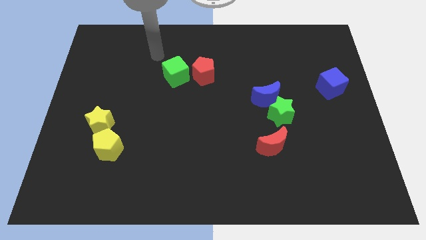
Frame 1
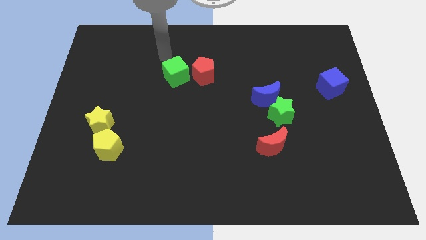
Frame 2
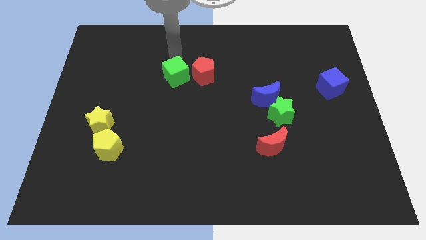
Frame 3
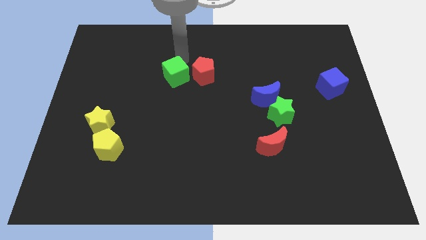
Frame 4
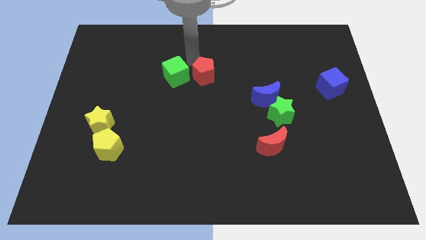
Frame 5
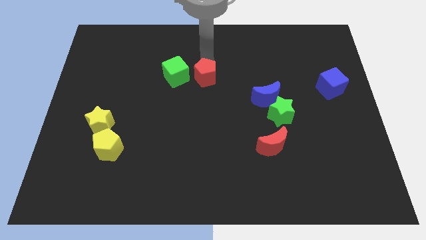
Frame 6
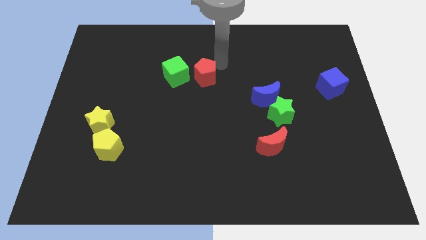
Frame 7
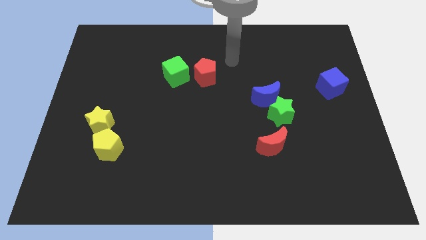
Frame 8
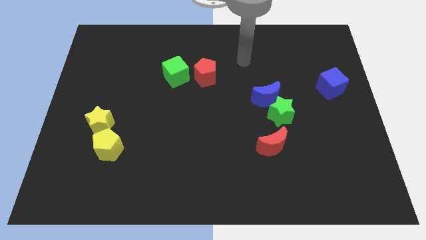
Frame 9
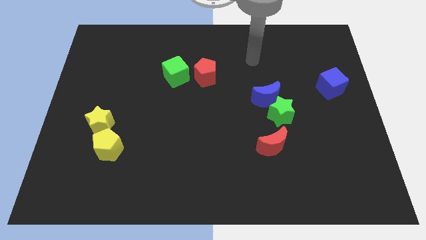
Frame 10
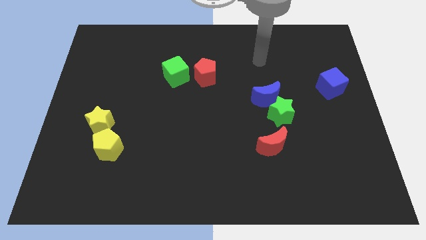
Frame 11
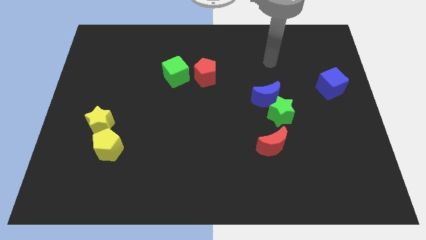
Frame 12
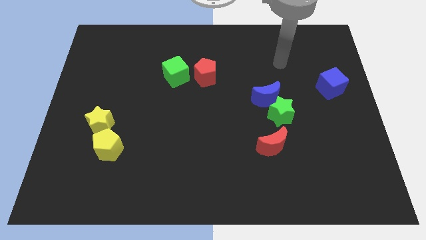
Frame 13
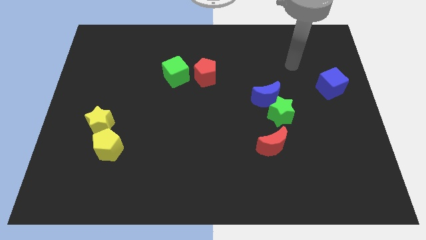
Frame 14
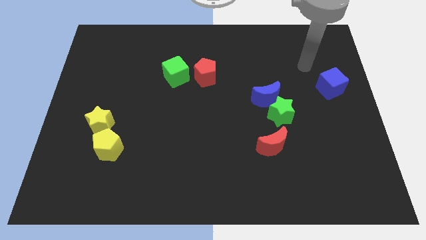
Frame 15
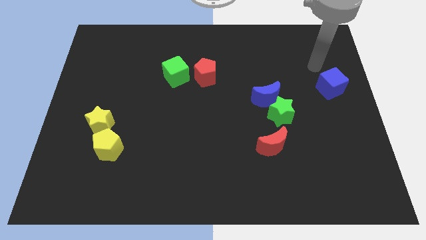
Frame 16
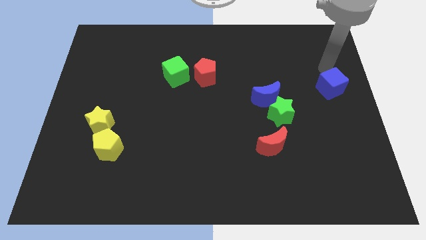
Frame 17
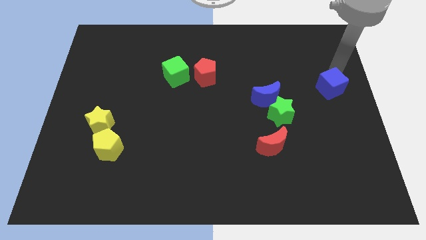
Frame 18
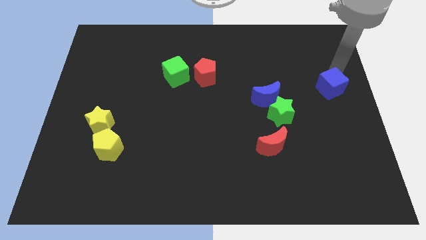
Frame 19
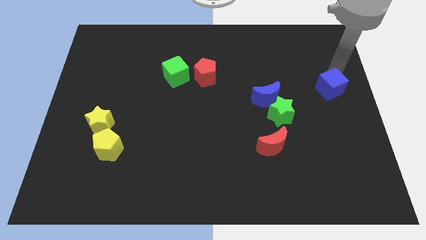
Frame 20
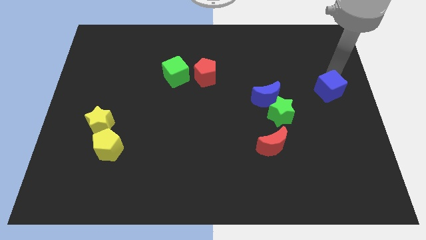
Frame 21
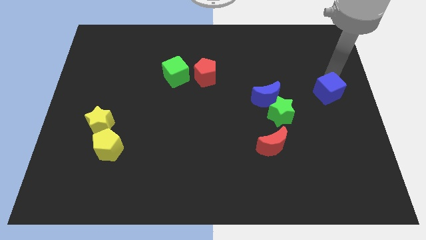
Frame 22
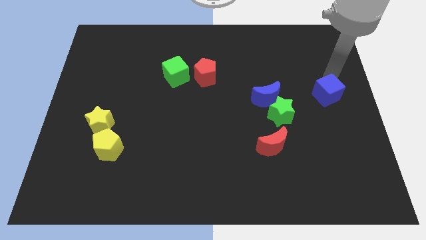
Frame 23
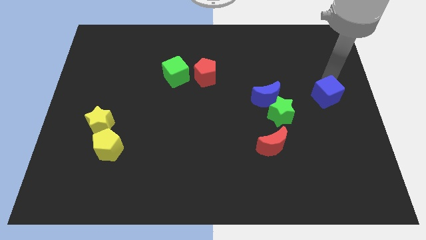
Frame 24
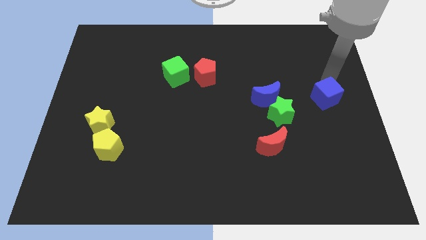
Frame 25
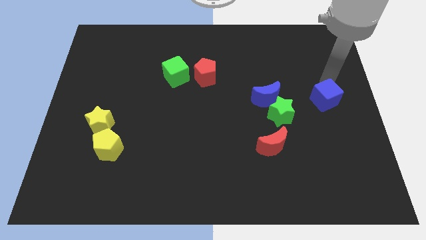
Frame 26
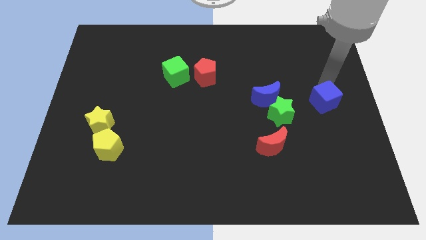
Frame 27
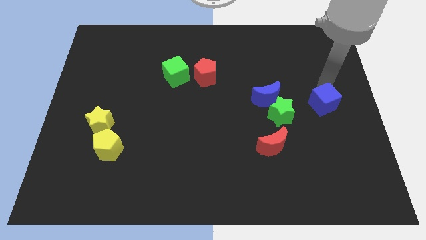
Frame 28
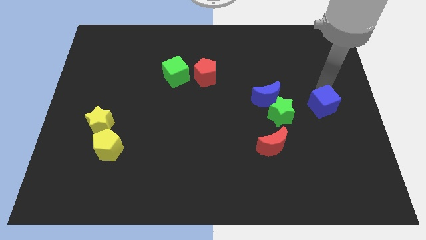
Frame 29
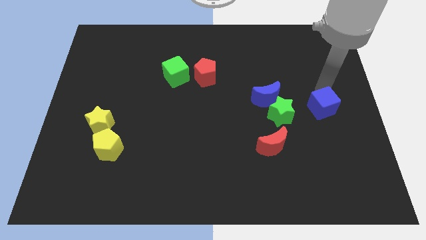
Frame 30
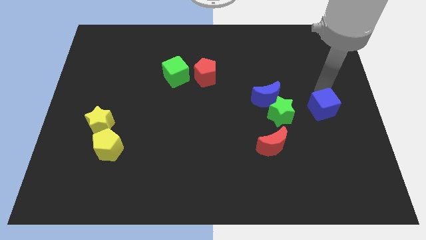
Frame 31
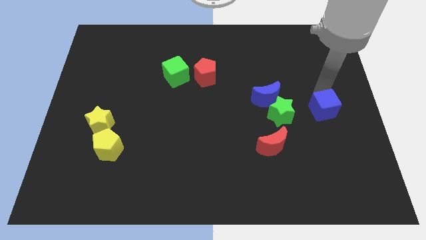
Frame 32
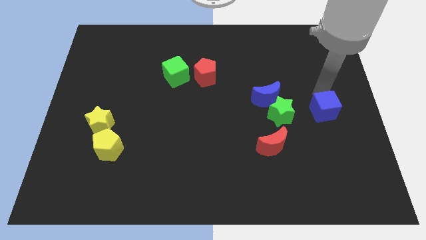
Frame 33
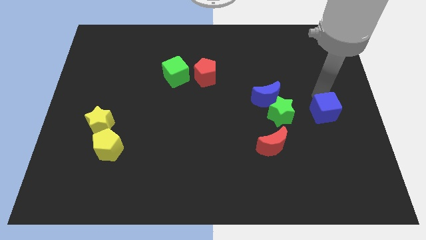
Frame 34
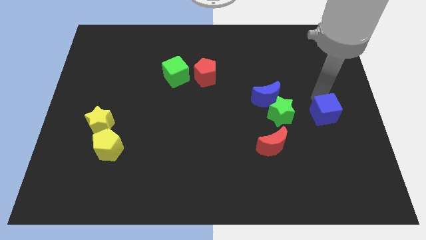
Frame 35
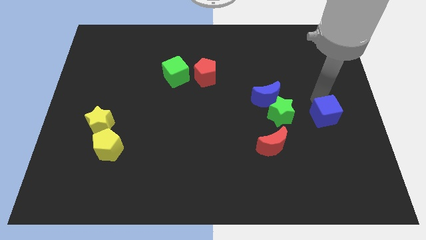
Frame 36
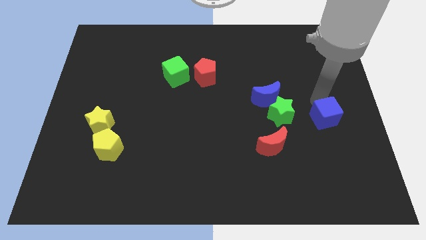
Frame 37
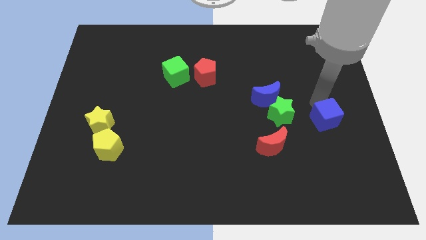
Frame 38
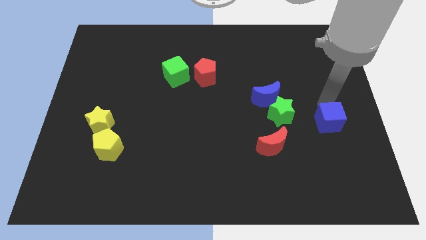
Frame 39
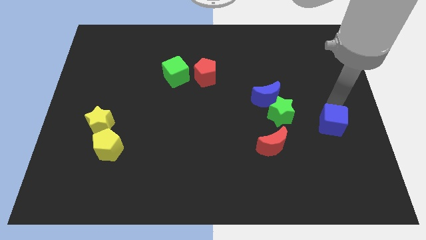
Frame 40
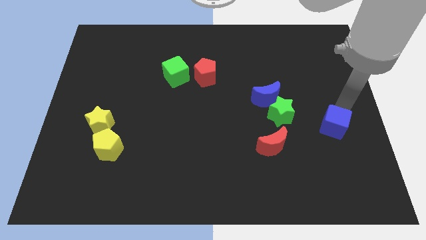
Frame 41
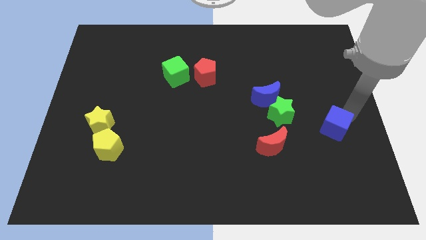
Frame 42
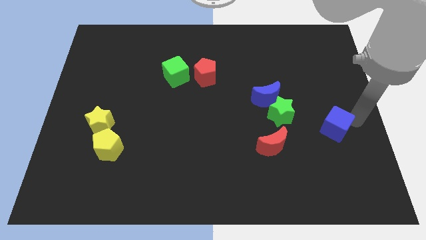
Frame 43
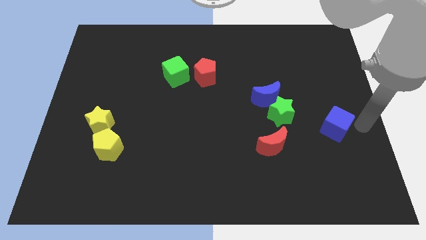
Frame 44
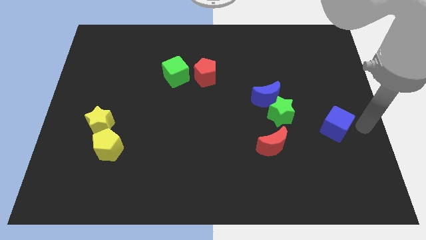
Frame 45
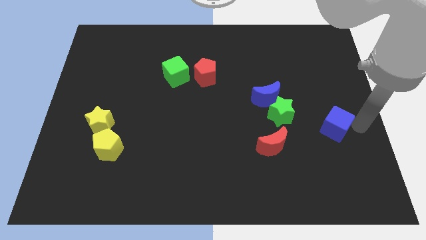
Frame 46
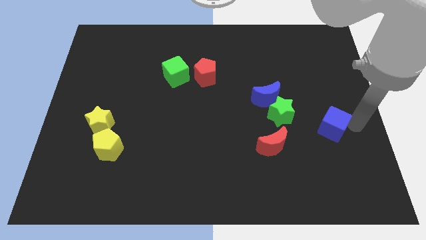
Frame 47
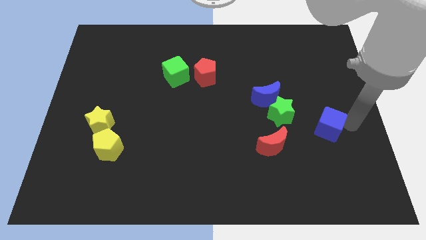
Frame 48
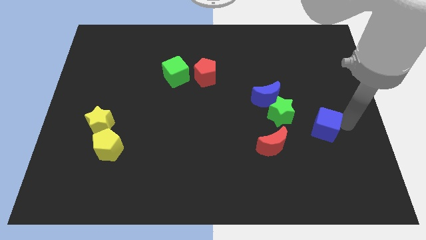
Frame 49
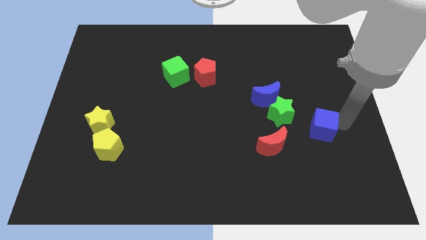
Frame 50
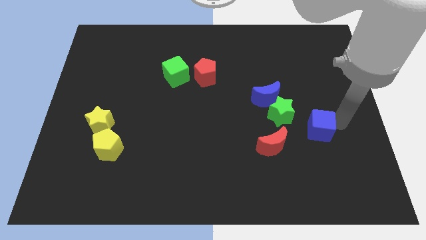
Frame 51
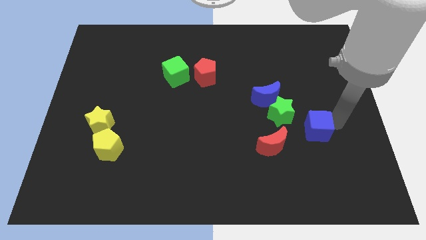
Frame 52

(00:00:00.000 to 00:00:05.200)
slide the blue cube to the top right of the red moon

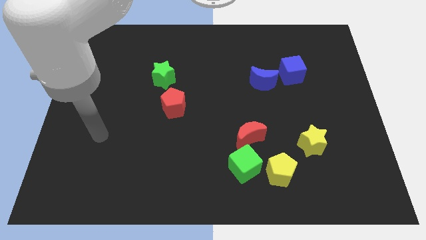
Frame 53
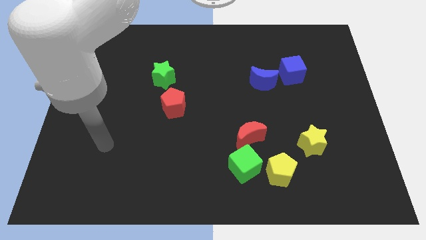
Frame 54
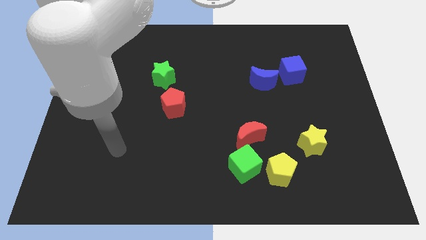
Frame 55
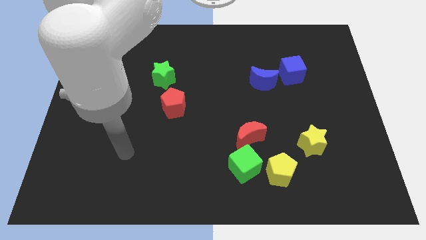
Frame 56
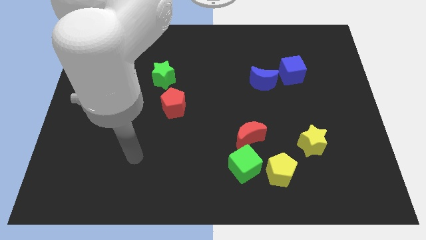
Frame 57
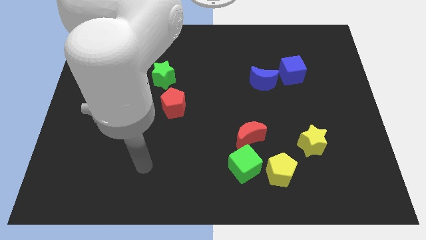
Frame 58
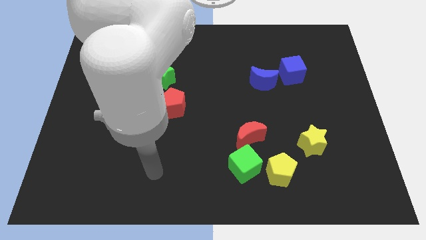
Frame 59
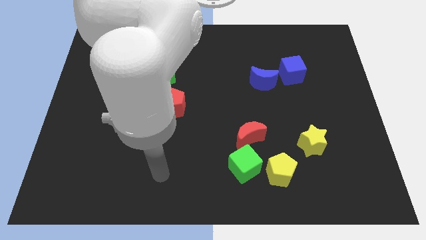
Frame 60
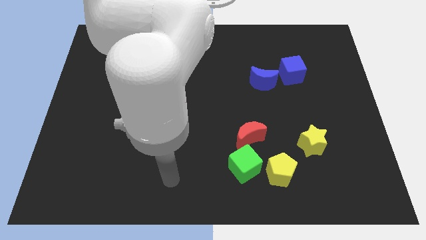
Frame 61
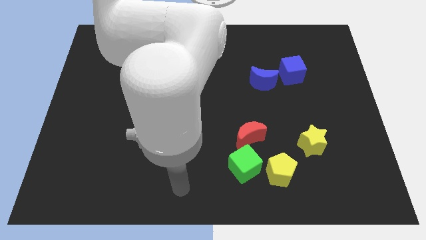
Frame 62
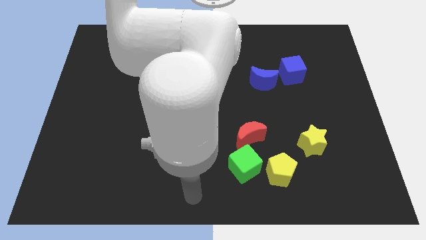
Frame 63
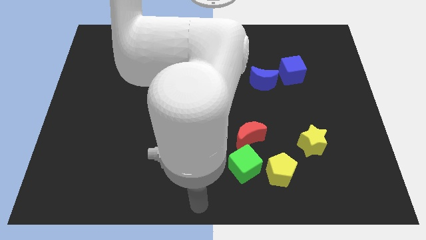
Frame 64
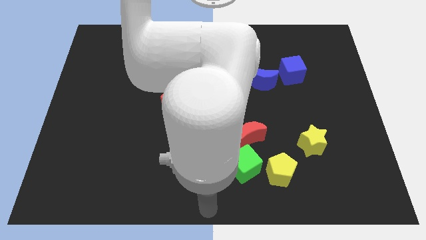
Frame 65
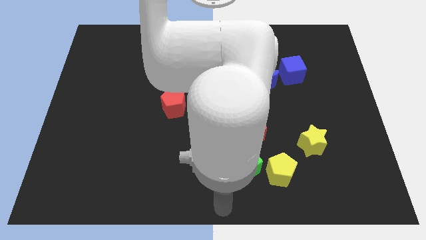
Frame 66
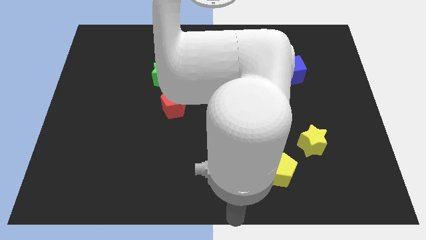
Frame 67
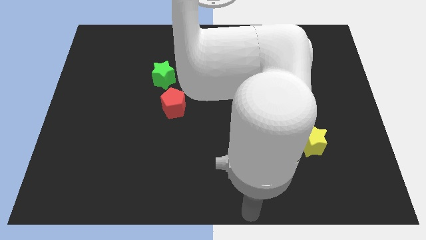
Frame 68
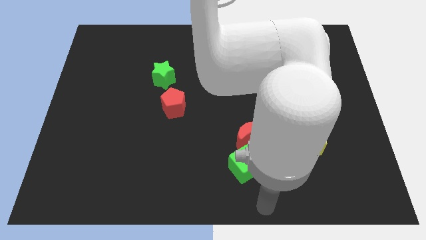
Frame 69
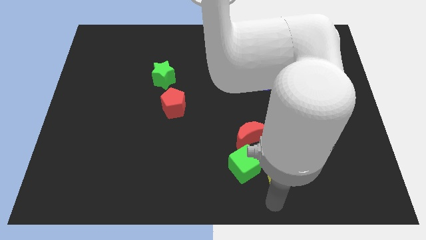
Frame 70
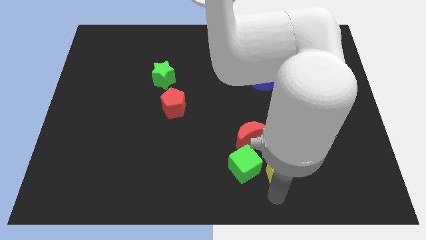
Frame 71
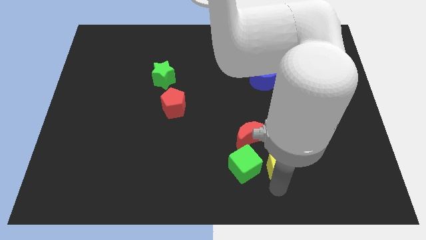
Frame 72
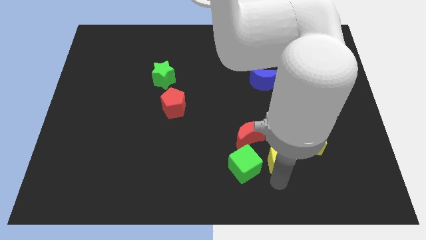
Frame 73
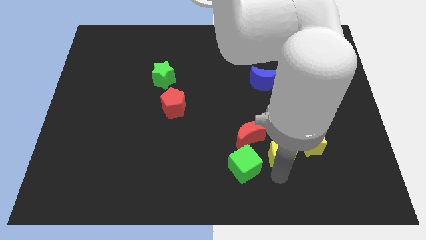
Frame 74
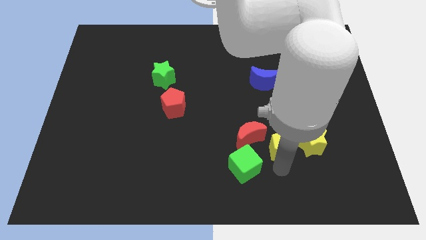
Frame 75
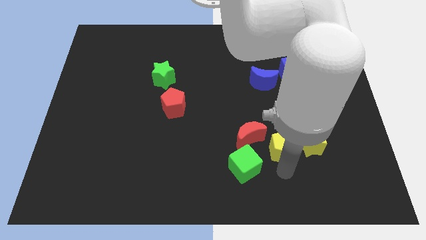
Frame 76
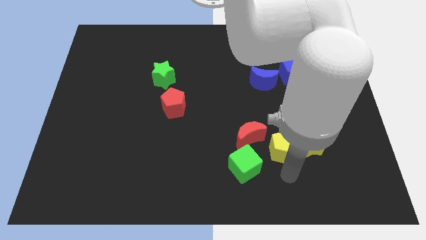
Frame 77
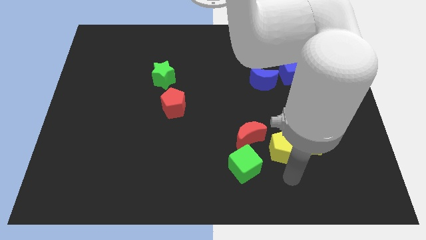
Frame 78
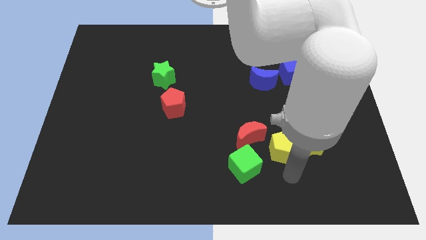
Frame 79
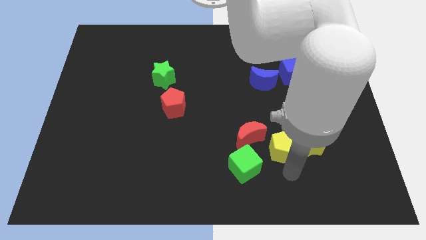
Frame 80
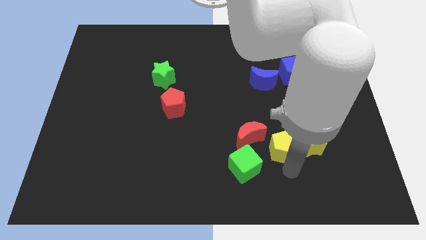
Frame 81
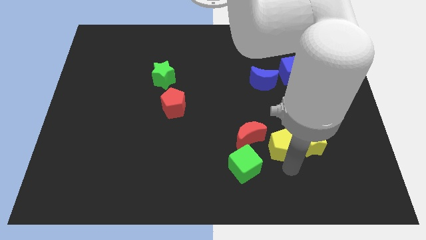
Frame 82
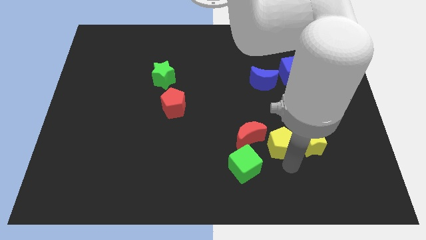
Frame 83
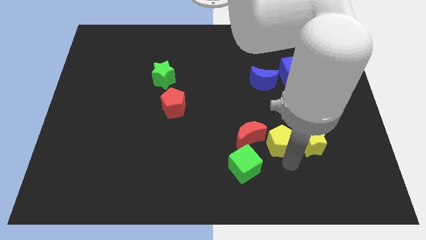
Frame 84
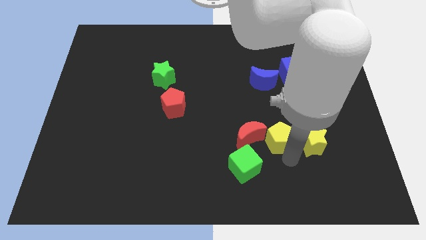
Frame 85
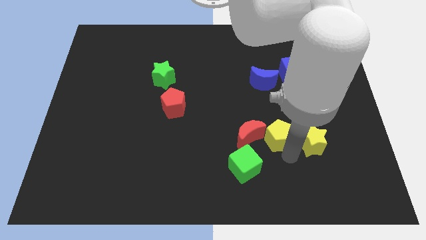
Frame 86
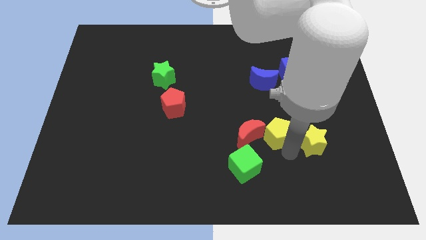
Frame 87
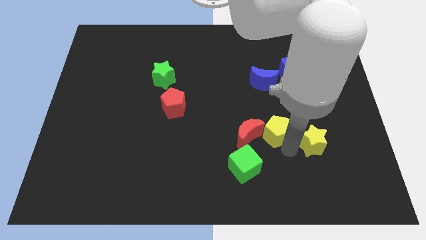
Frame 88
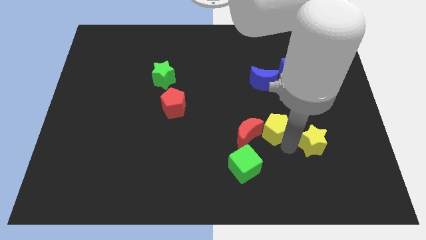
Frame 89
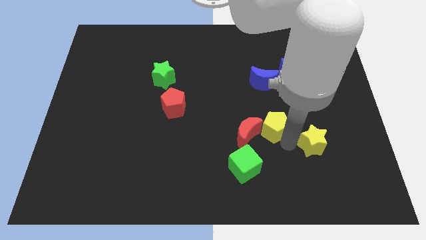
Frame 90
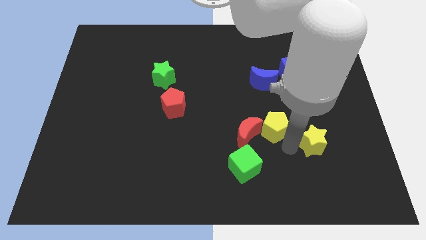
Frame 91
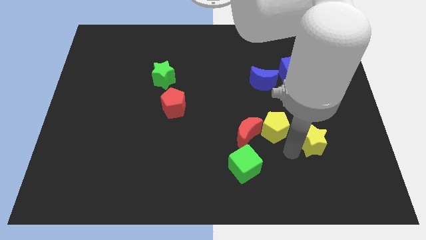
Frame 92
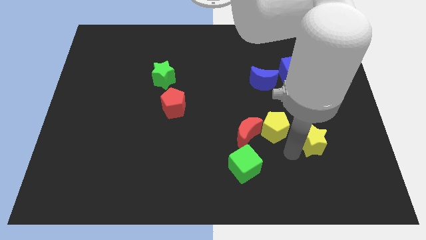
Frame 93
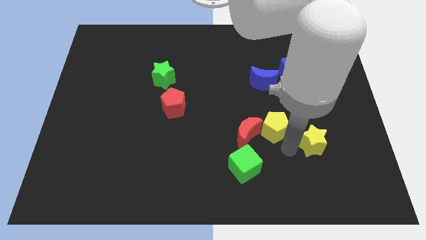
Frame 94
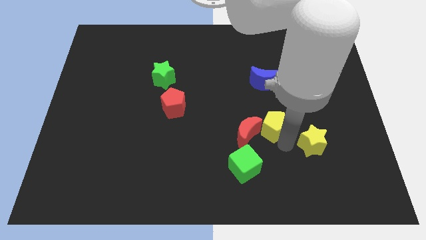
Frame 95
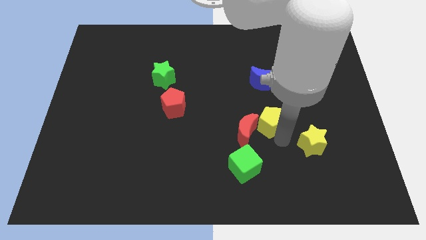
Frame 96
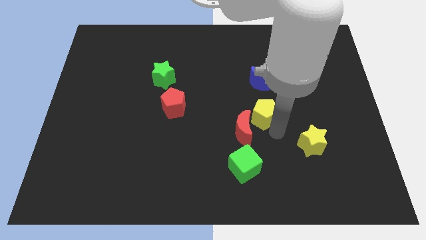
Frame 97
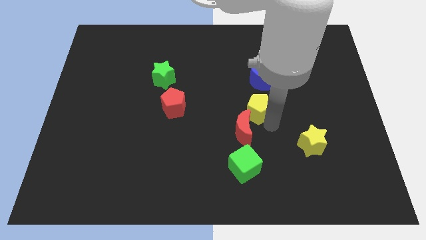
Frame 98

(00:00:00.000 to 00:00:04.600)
put the yellow pentagon to the top of the red moon
